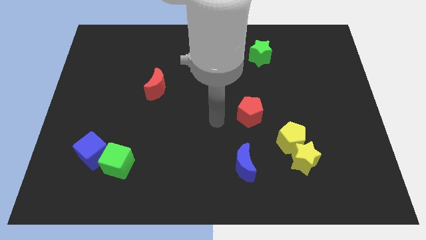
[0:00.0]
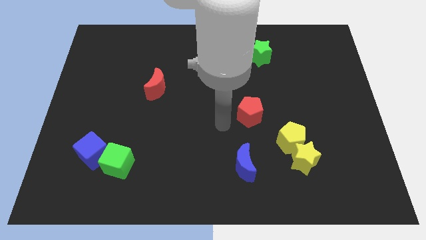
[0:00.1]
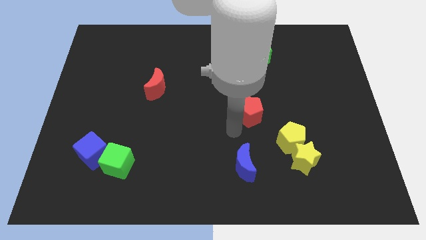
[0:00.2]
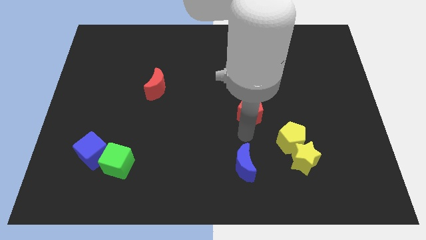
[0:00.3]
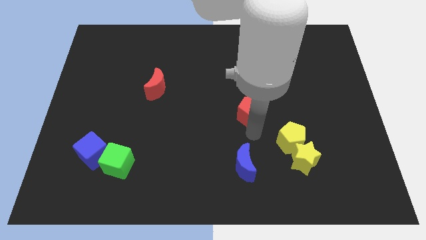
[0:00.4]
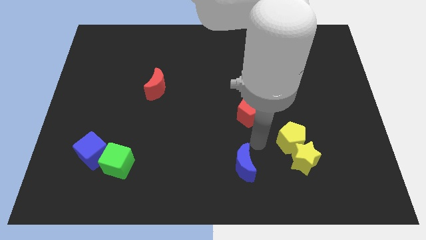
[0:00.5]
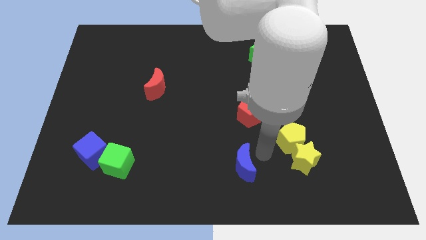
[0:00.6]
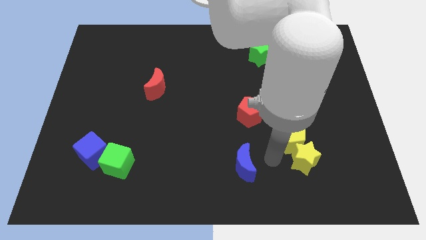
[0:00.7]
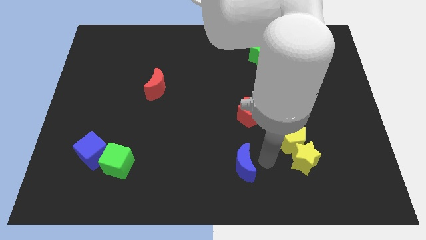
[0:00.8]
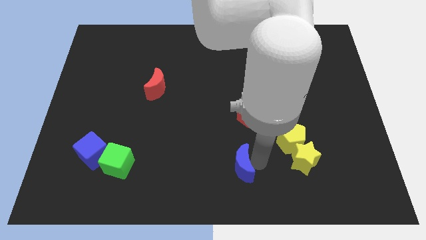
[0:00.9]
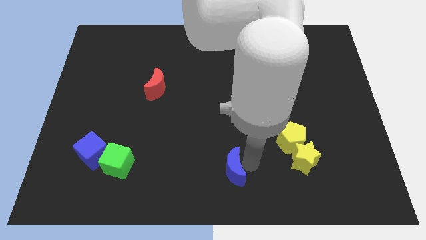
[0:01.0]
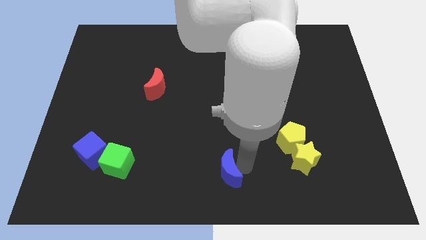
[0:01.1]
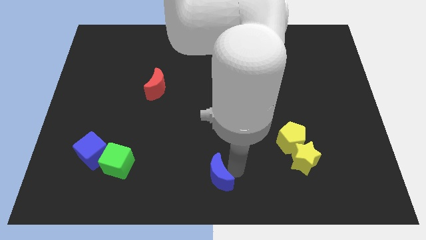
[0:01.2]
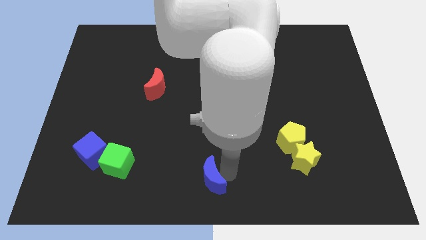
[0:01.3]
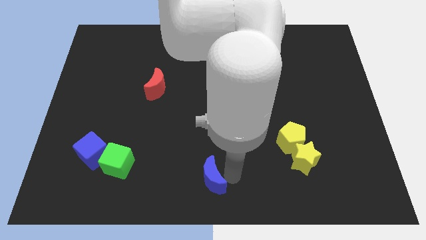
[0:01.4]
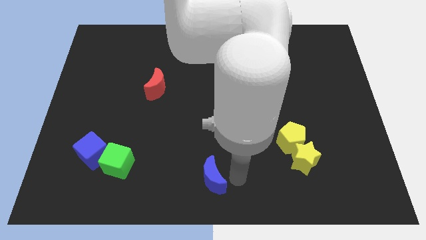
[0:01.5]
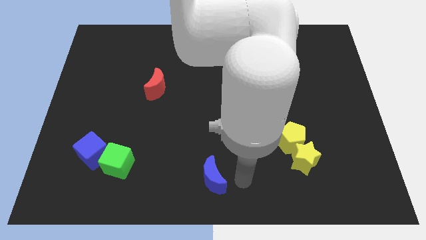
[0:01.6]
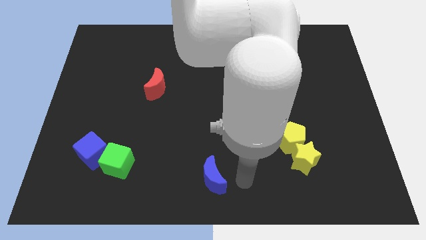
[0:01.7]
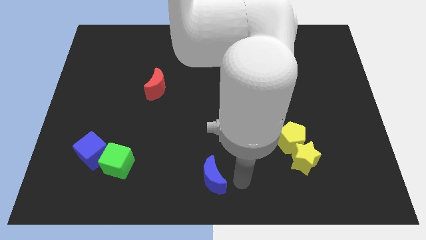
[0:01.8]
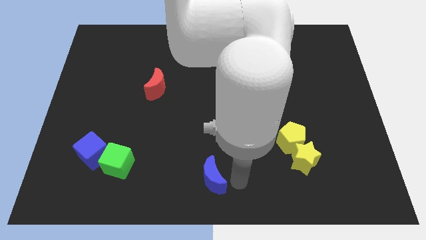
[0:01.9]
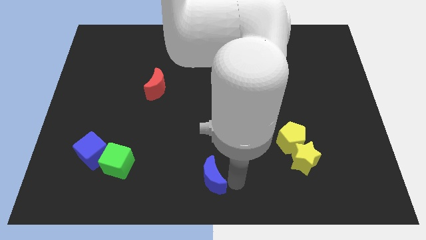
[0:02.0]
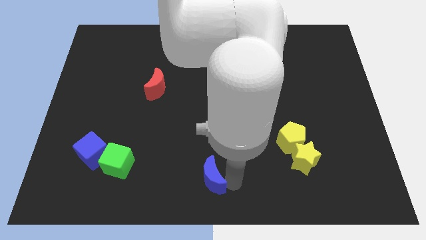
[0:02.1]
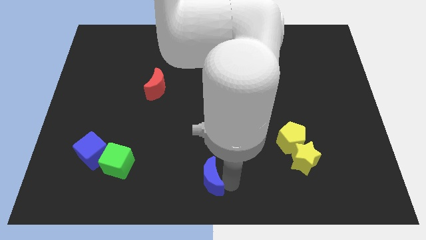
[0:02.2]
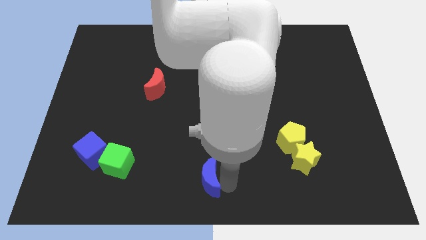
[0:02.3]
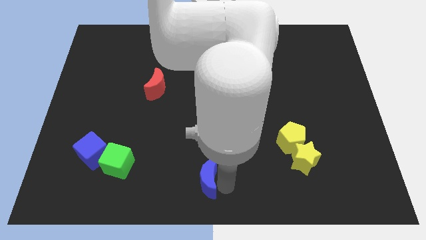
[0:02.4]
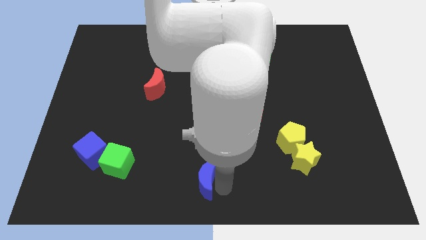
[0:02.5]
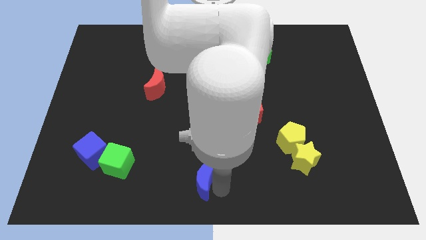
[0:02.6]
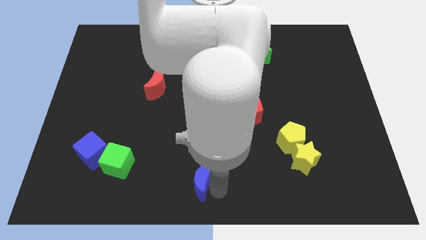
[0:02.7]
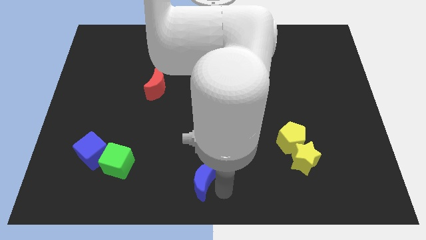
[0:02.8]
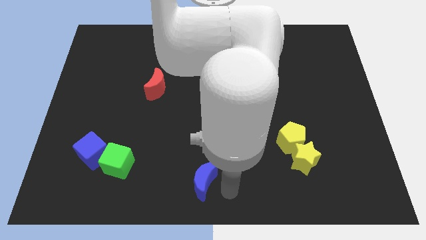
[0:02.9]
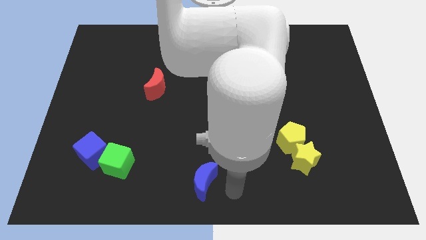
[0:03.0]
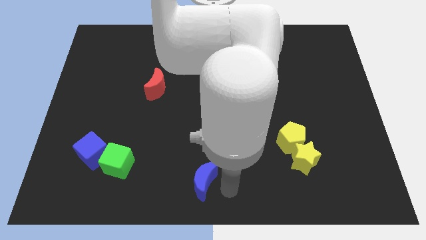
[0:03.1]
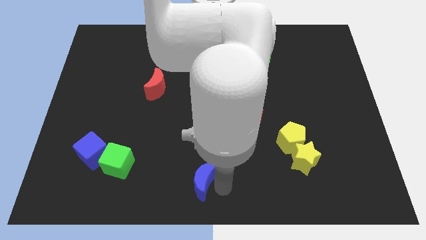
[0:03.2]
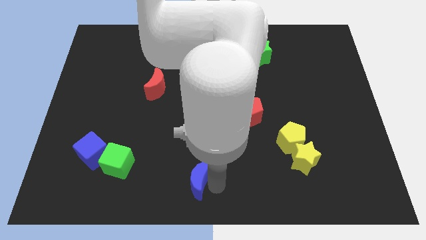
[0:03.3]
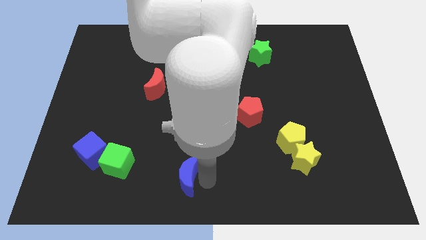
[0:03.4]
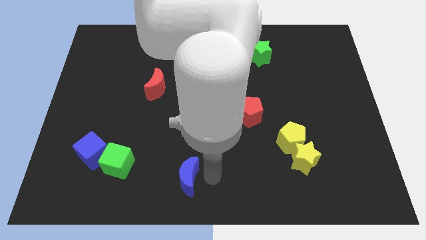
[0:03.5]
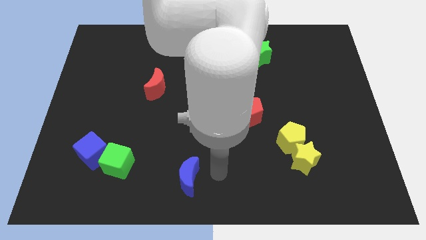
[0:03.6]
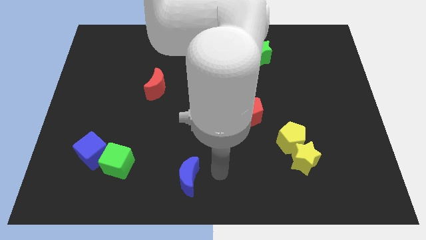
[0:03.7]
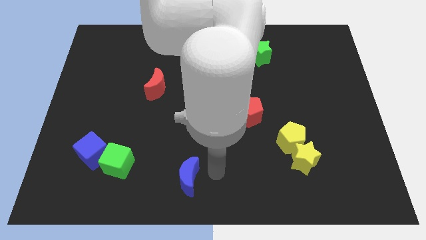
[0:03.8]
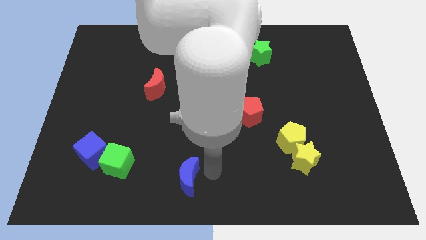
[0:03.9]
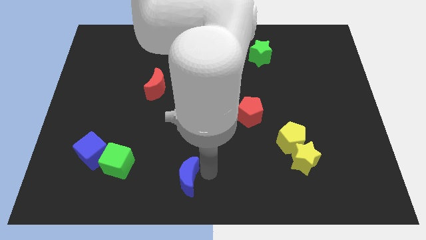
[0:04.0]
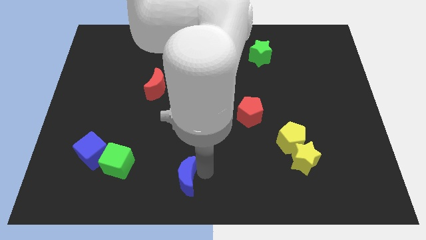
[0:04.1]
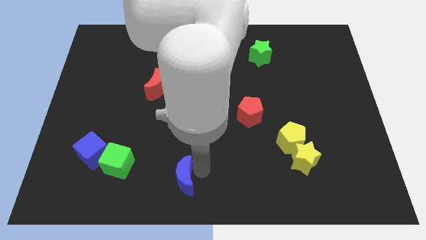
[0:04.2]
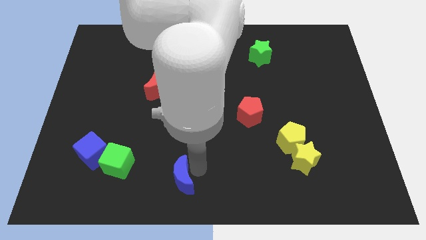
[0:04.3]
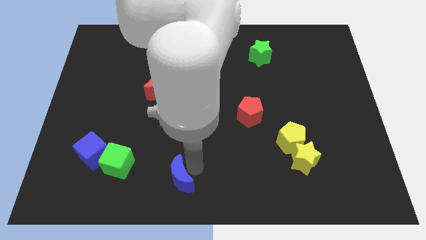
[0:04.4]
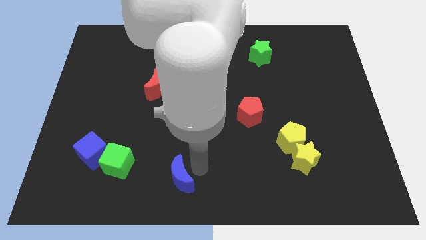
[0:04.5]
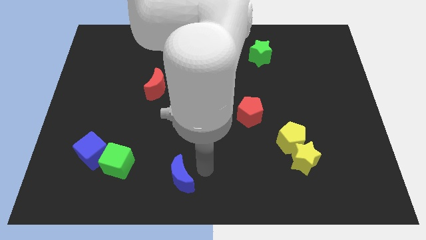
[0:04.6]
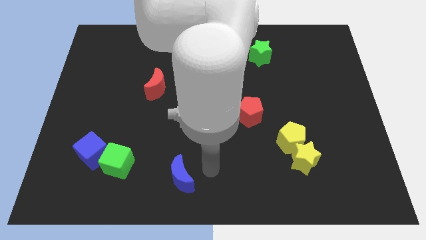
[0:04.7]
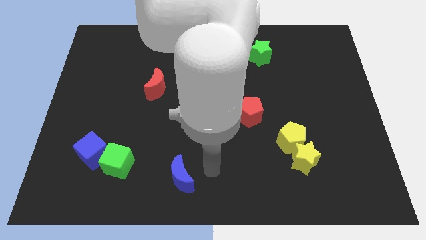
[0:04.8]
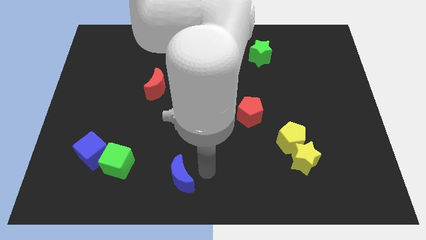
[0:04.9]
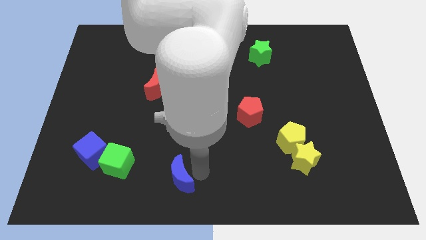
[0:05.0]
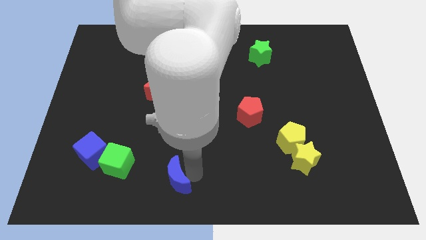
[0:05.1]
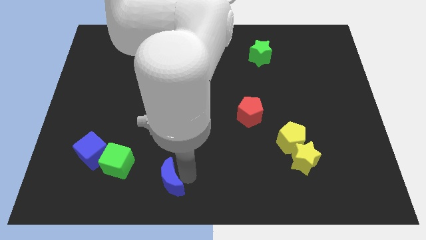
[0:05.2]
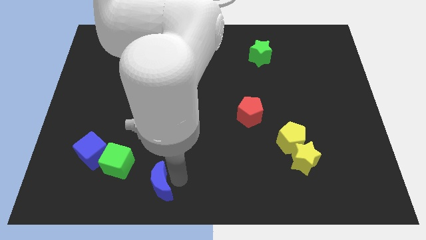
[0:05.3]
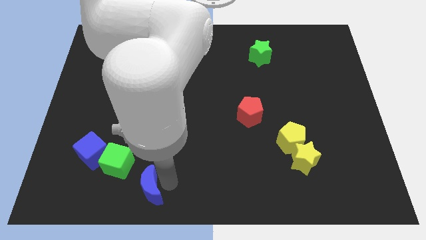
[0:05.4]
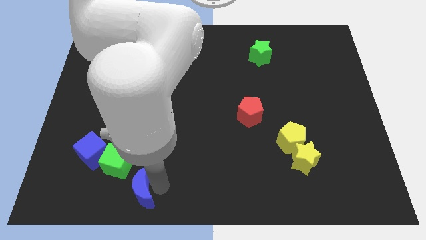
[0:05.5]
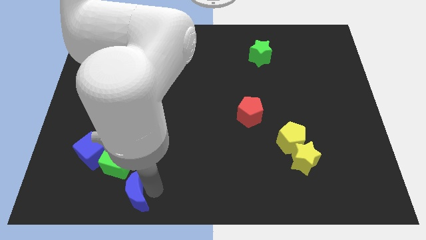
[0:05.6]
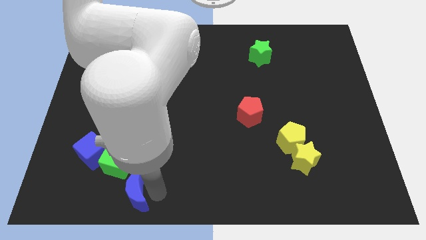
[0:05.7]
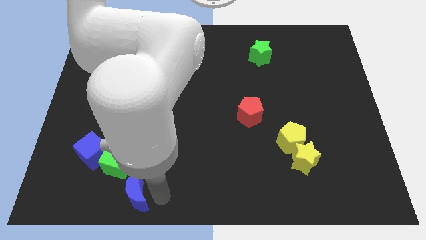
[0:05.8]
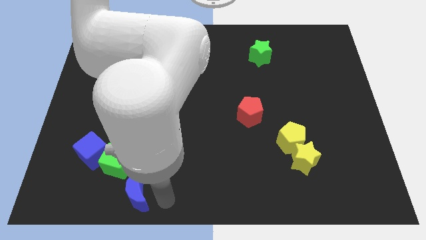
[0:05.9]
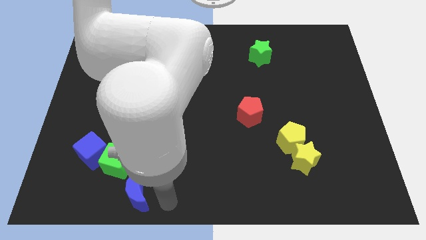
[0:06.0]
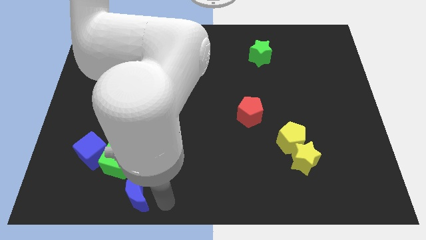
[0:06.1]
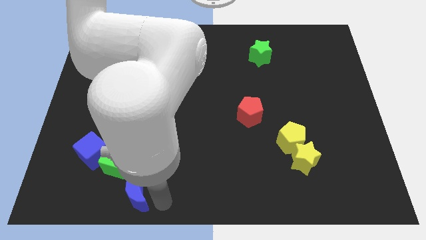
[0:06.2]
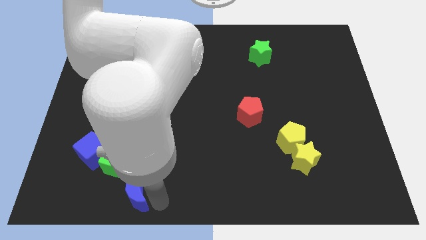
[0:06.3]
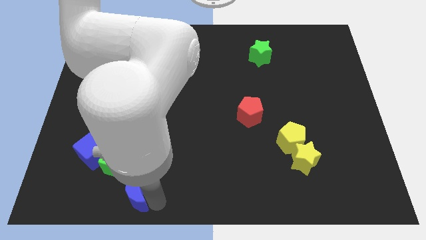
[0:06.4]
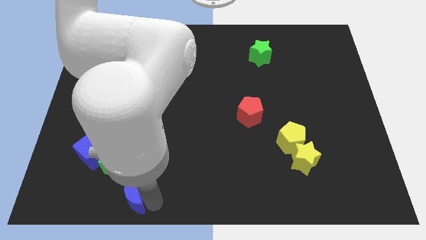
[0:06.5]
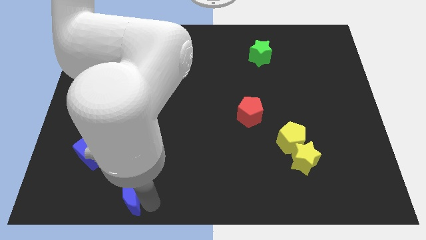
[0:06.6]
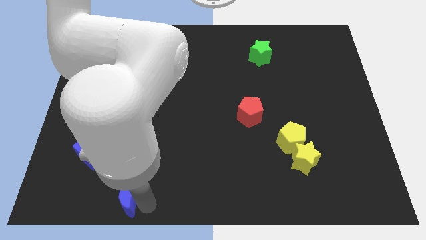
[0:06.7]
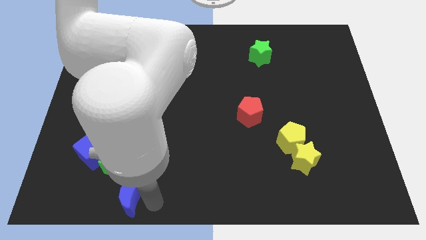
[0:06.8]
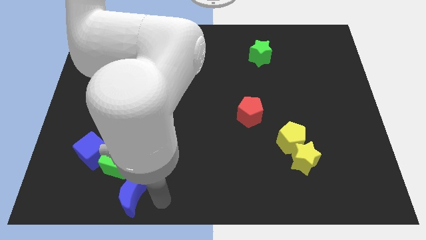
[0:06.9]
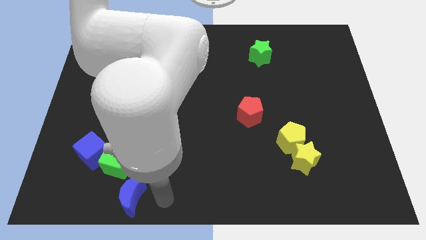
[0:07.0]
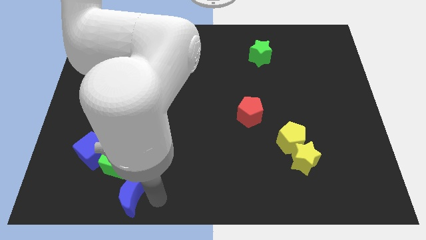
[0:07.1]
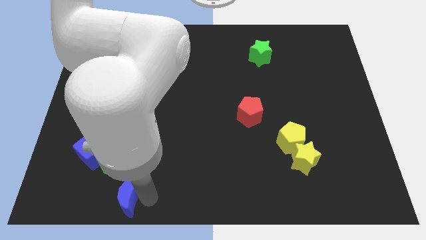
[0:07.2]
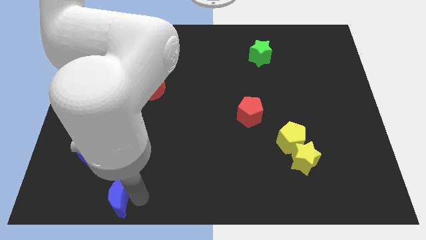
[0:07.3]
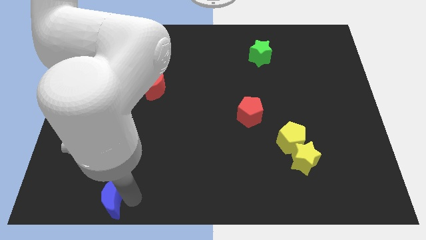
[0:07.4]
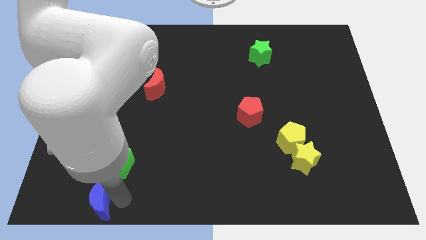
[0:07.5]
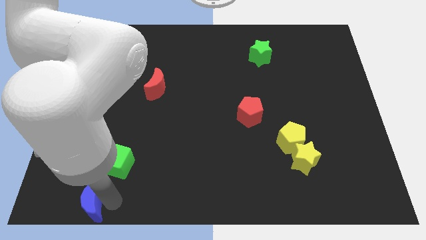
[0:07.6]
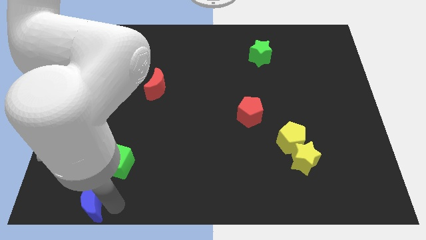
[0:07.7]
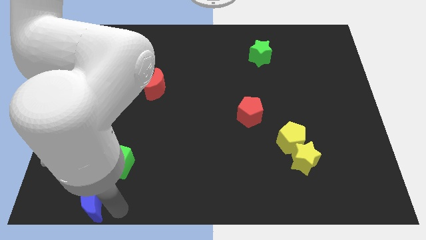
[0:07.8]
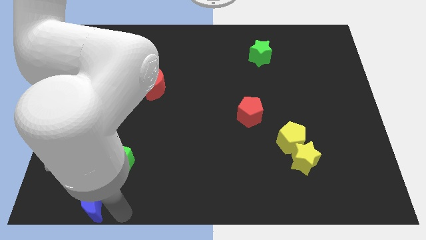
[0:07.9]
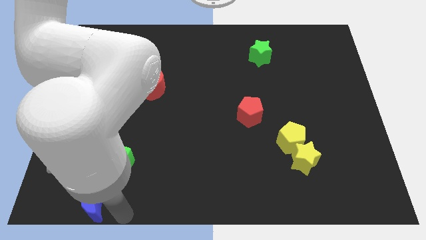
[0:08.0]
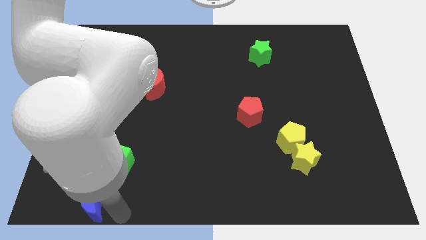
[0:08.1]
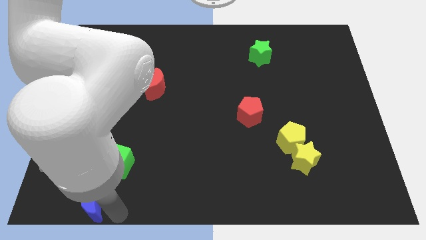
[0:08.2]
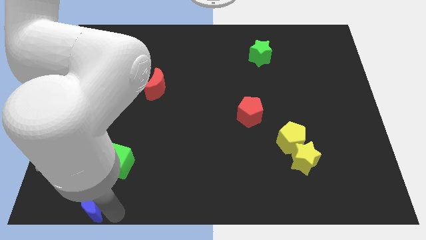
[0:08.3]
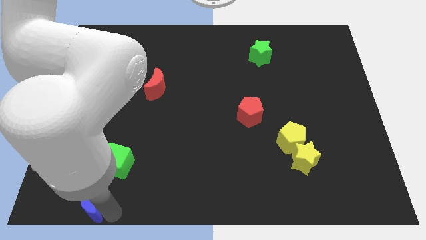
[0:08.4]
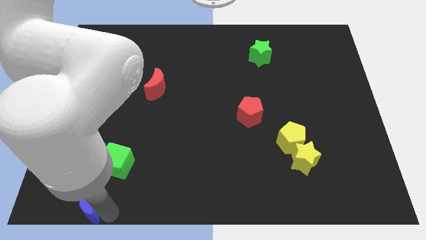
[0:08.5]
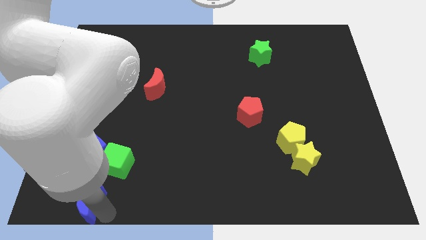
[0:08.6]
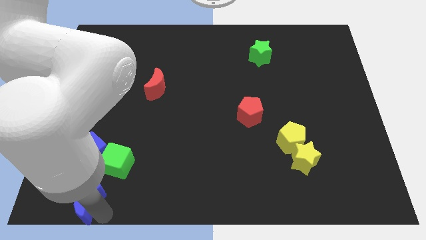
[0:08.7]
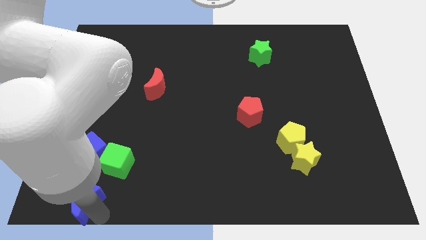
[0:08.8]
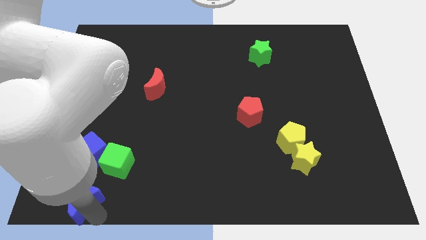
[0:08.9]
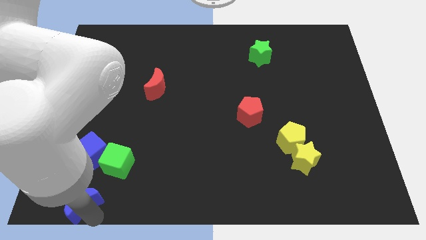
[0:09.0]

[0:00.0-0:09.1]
move the blue moon to the bottom left of the board
